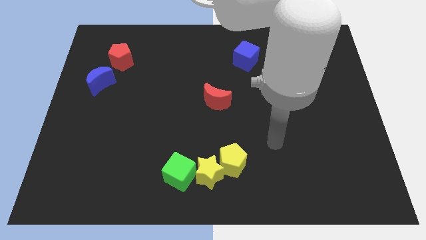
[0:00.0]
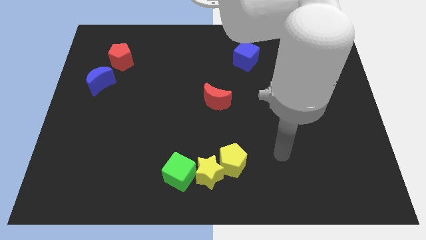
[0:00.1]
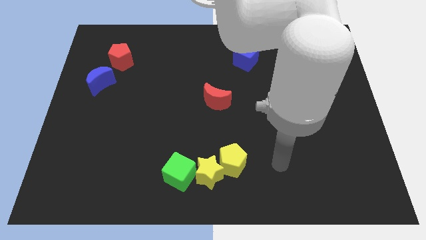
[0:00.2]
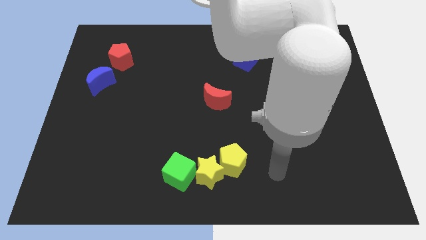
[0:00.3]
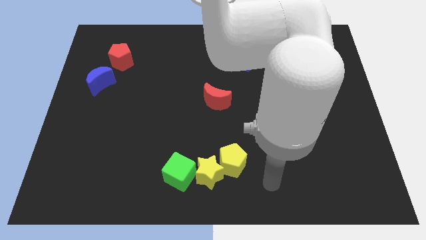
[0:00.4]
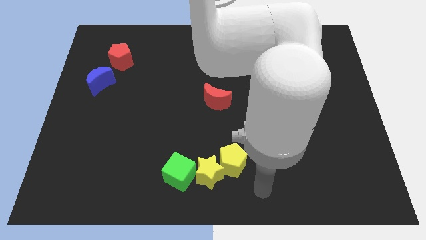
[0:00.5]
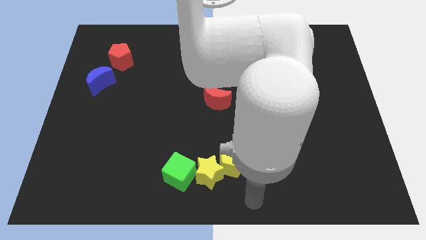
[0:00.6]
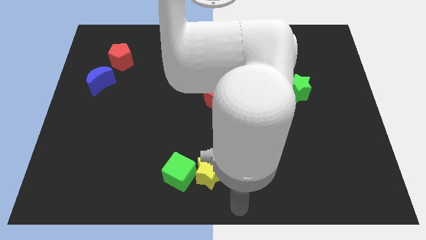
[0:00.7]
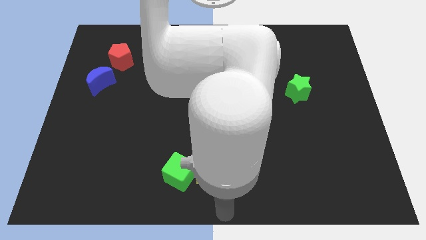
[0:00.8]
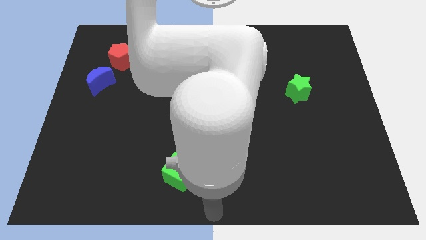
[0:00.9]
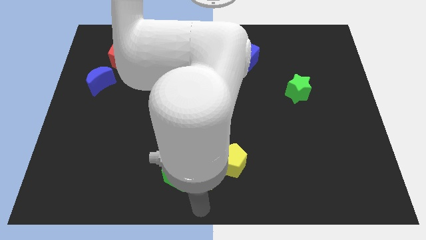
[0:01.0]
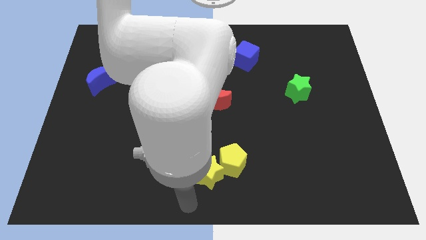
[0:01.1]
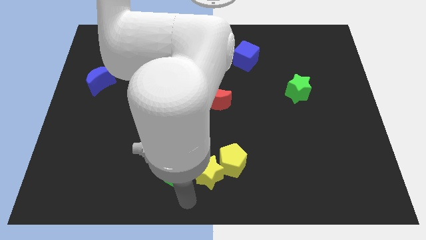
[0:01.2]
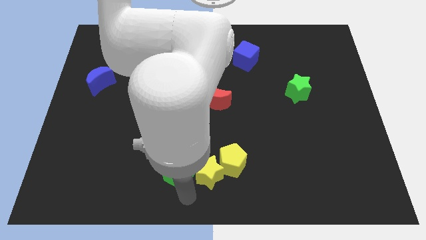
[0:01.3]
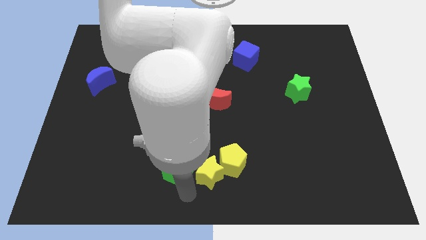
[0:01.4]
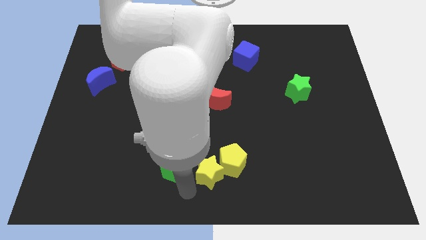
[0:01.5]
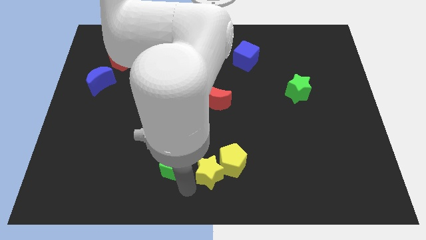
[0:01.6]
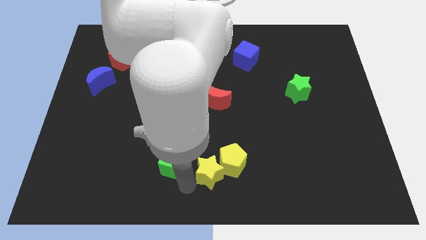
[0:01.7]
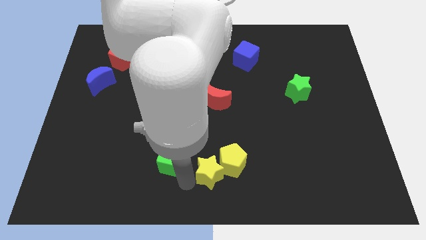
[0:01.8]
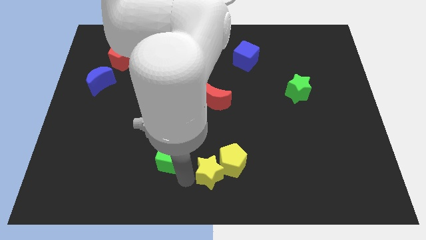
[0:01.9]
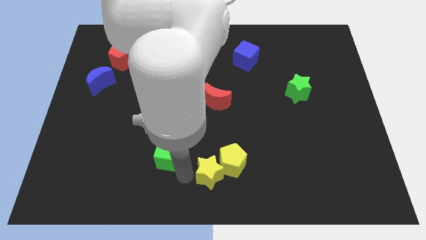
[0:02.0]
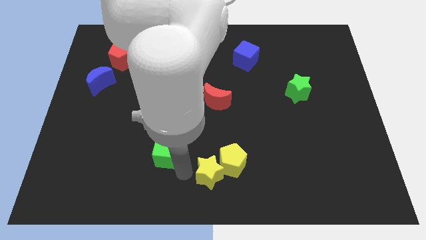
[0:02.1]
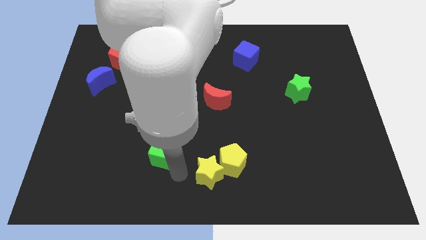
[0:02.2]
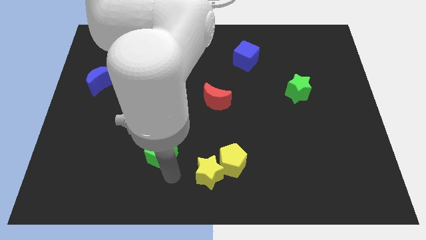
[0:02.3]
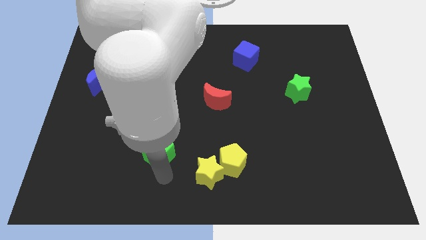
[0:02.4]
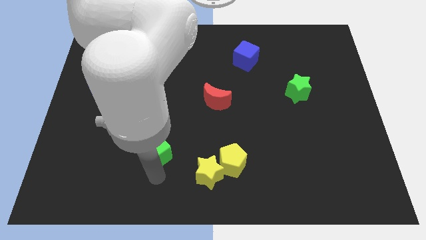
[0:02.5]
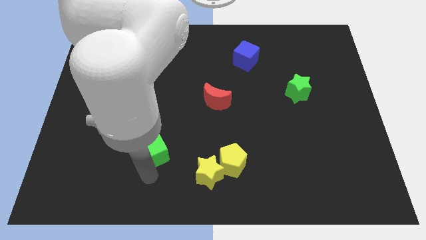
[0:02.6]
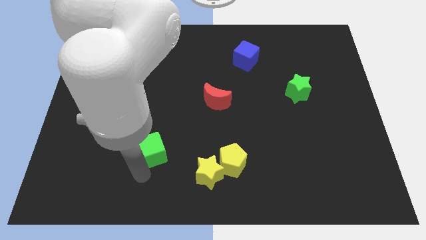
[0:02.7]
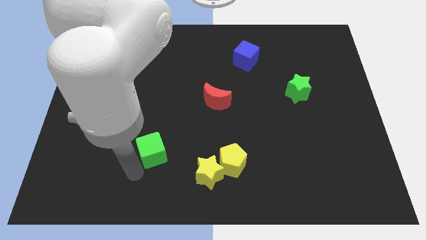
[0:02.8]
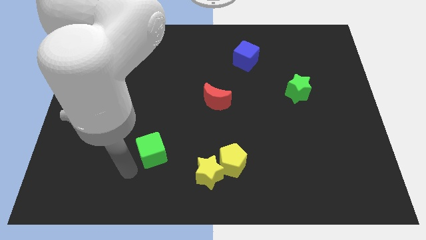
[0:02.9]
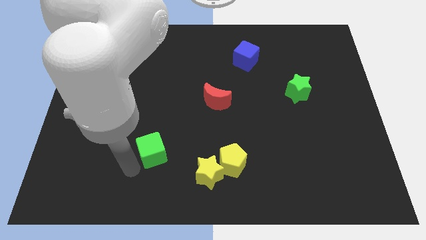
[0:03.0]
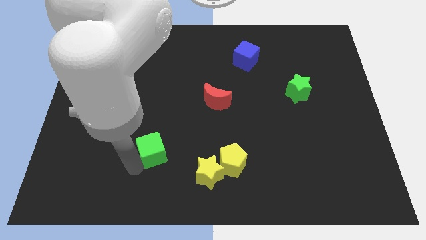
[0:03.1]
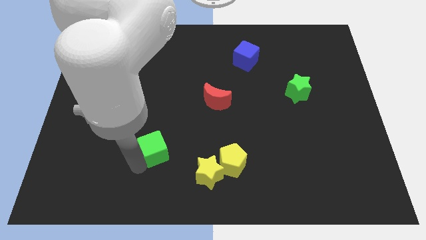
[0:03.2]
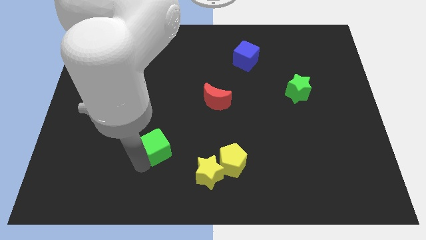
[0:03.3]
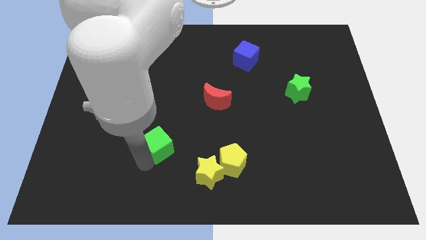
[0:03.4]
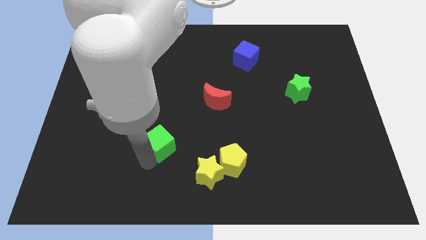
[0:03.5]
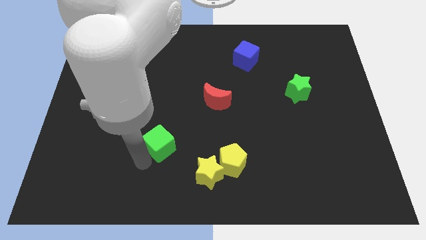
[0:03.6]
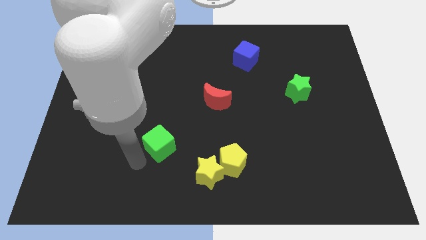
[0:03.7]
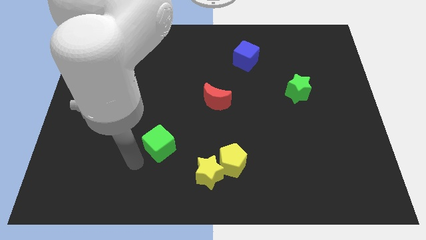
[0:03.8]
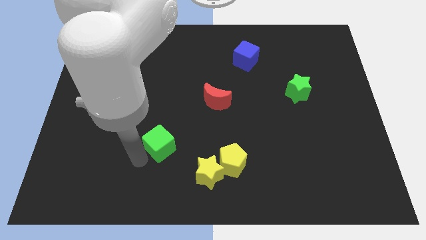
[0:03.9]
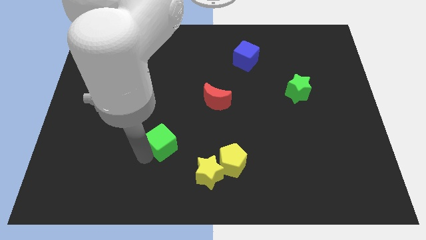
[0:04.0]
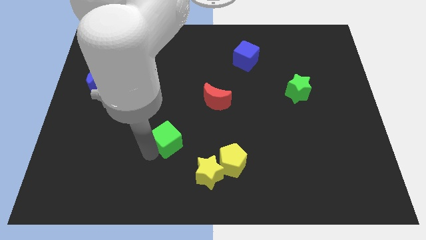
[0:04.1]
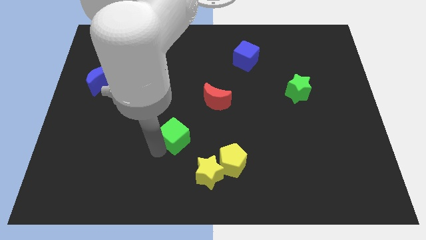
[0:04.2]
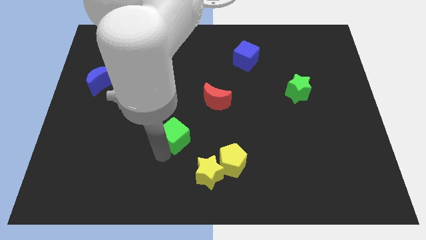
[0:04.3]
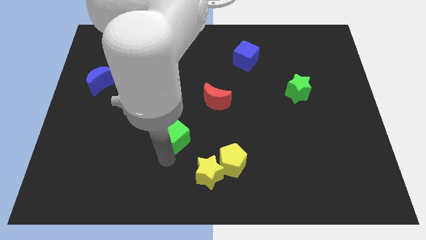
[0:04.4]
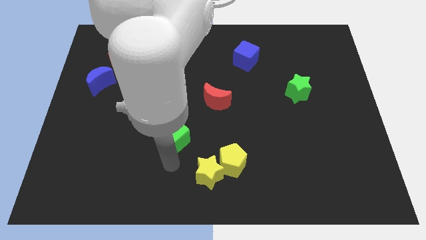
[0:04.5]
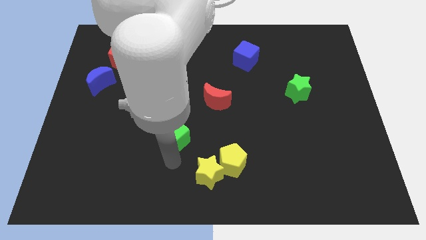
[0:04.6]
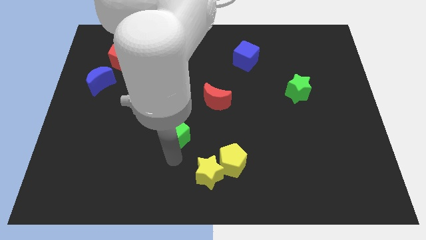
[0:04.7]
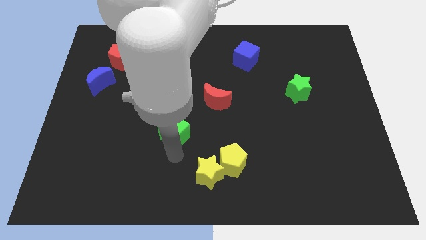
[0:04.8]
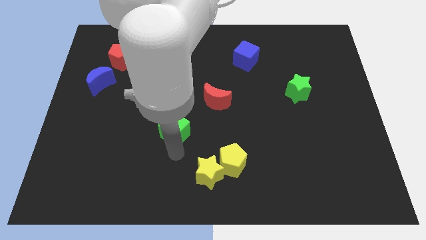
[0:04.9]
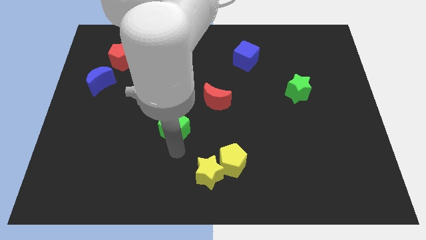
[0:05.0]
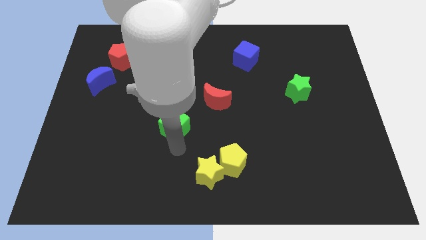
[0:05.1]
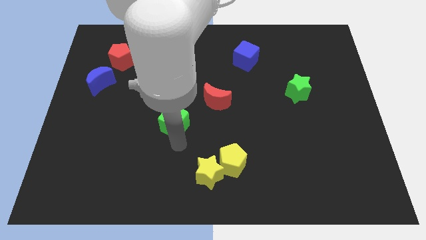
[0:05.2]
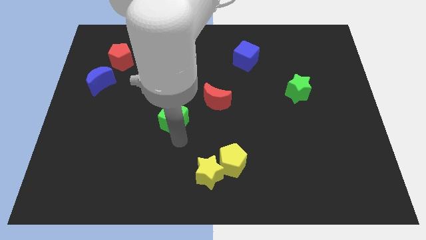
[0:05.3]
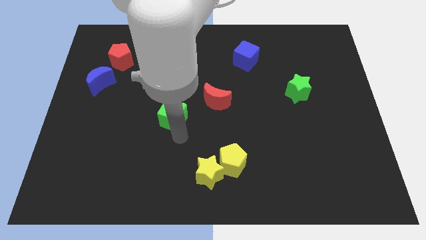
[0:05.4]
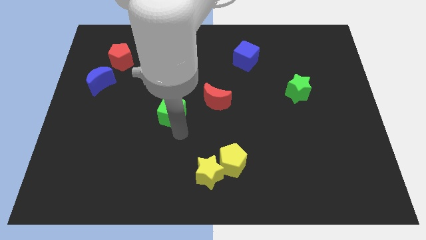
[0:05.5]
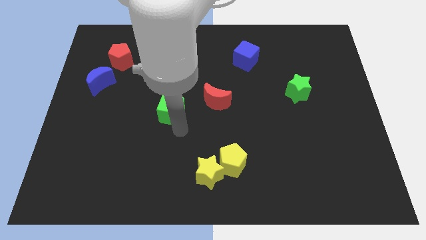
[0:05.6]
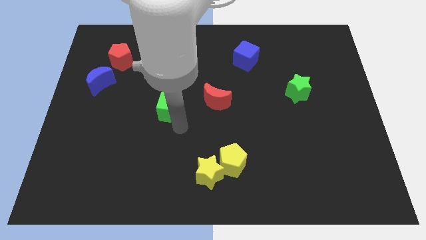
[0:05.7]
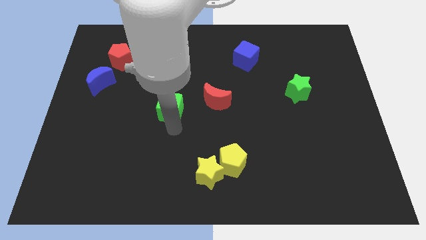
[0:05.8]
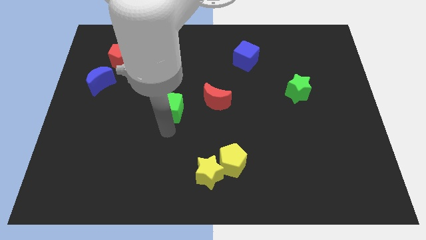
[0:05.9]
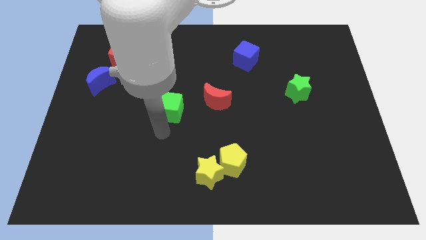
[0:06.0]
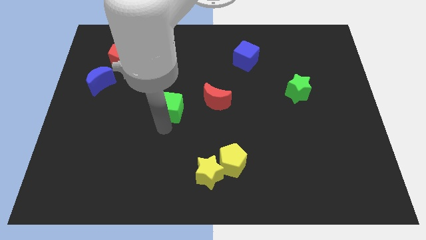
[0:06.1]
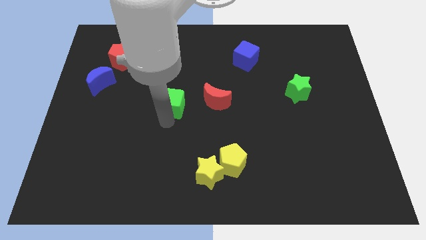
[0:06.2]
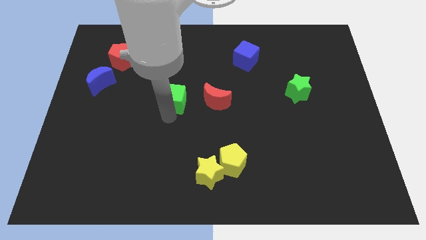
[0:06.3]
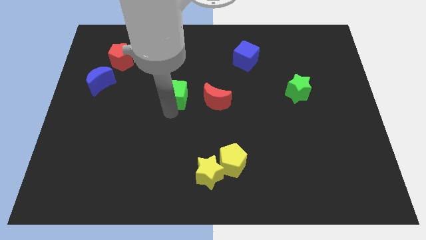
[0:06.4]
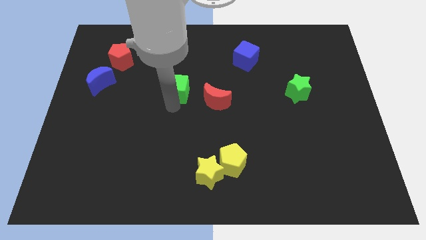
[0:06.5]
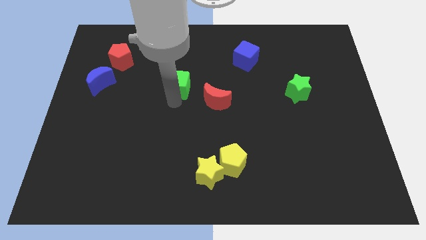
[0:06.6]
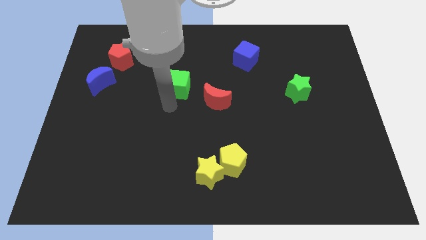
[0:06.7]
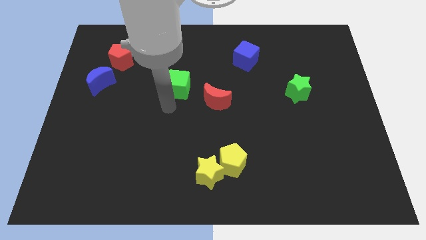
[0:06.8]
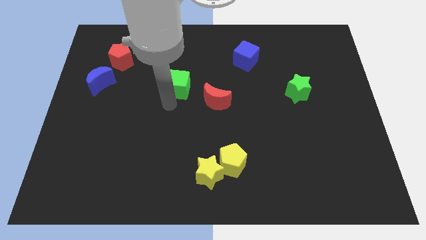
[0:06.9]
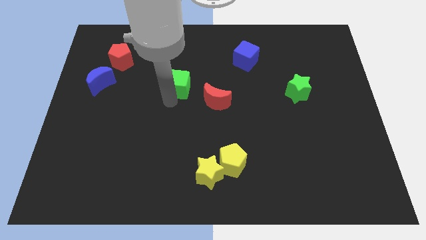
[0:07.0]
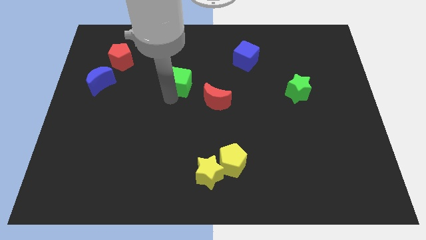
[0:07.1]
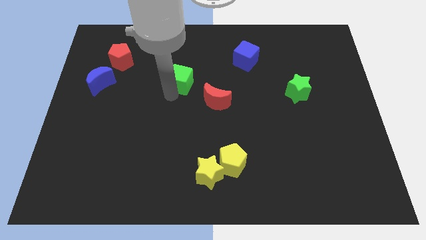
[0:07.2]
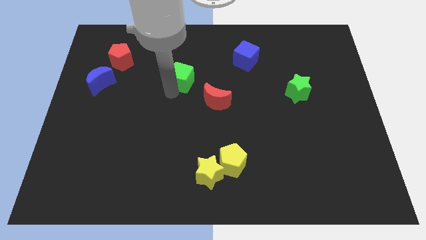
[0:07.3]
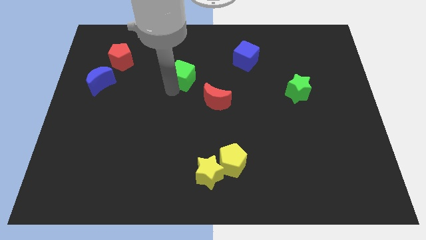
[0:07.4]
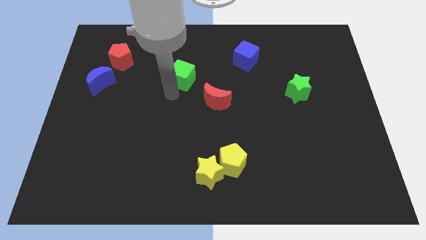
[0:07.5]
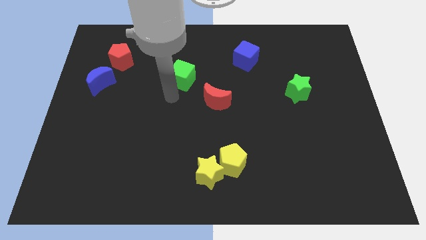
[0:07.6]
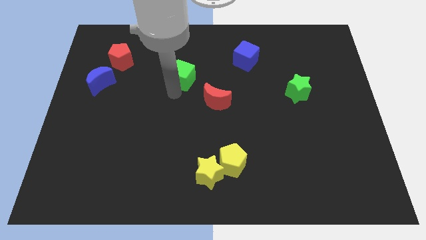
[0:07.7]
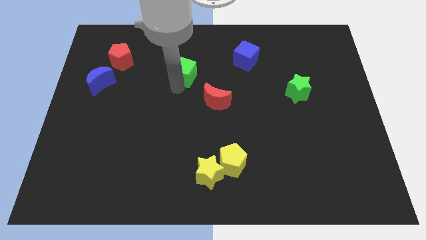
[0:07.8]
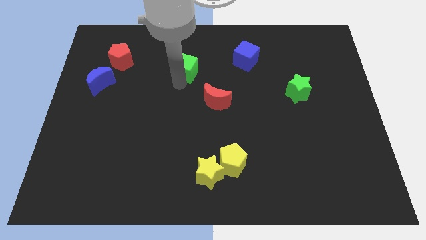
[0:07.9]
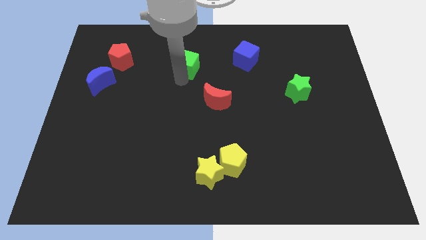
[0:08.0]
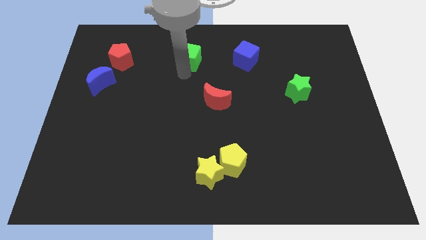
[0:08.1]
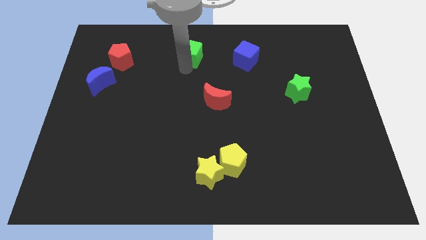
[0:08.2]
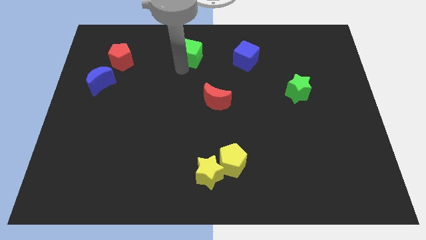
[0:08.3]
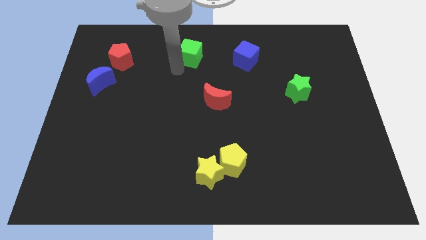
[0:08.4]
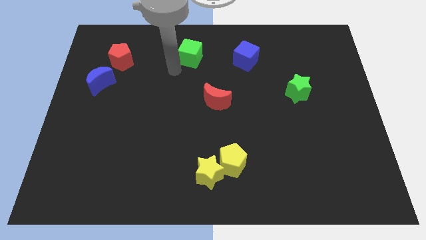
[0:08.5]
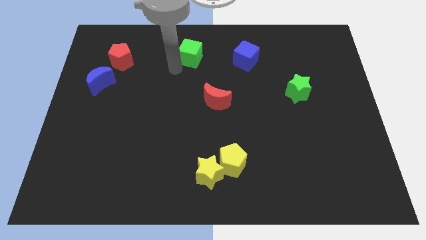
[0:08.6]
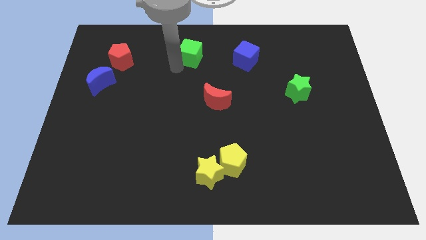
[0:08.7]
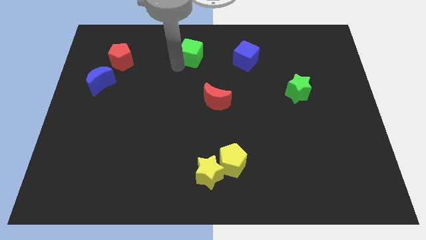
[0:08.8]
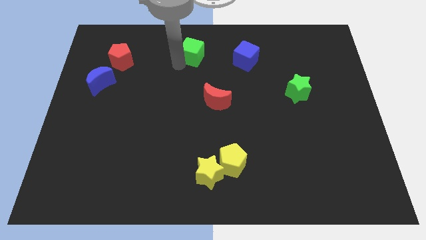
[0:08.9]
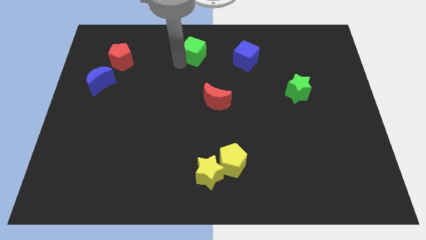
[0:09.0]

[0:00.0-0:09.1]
move the green cube to the top side
